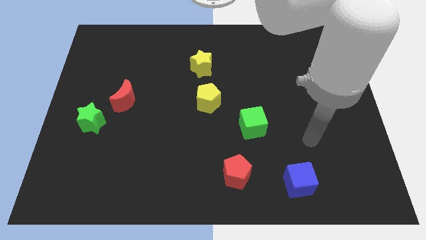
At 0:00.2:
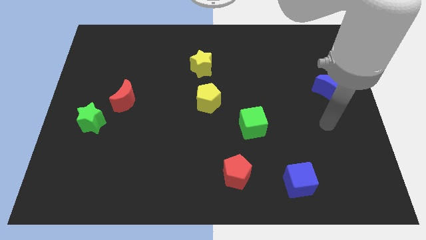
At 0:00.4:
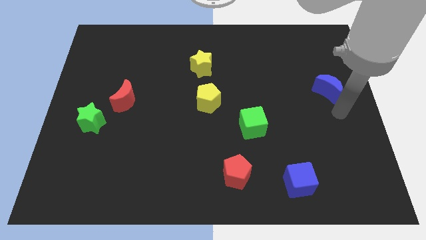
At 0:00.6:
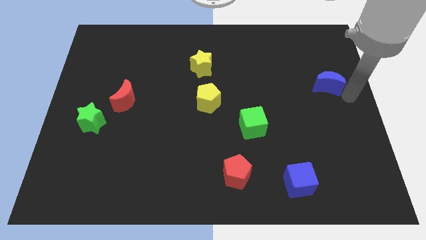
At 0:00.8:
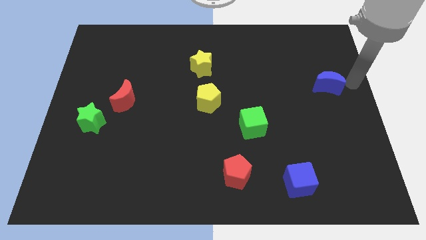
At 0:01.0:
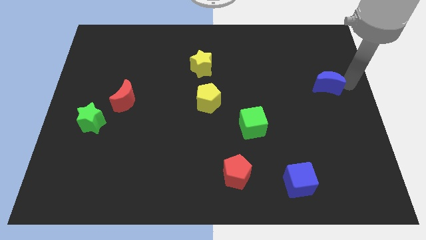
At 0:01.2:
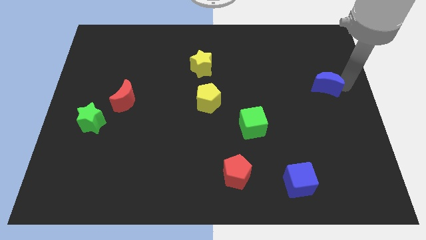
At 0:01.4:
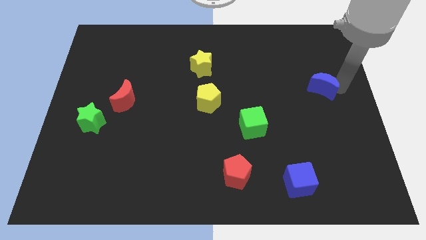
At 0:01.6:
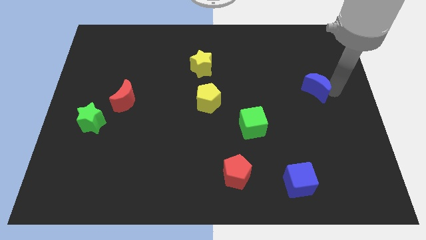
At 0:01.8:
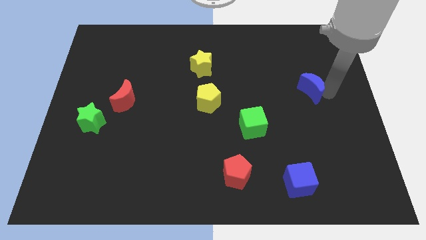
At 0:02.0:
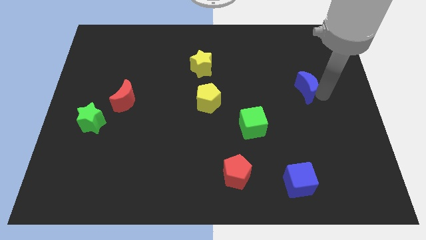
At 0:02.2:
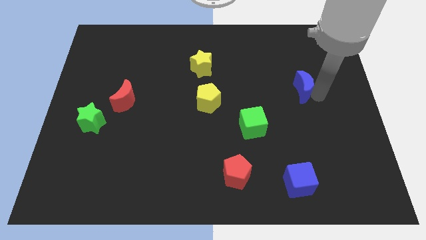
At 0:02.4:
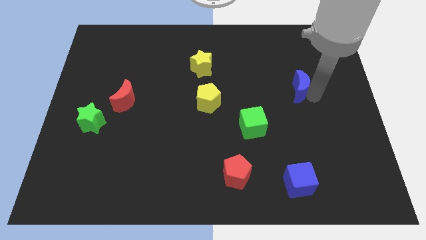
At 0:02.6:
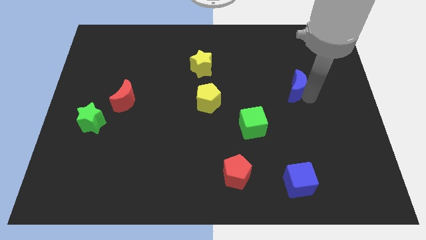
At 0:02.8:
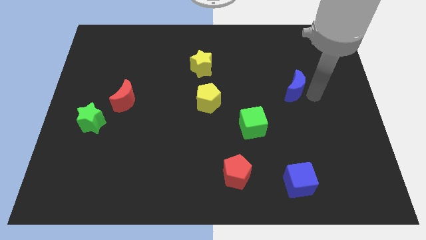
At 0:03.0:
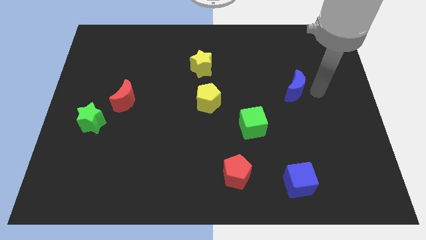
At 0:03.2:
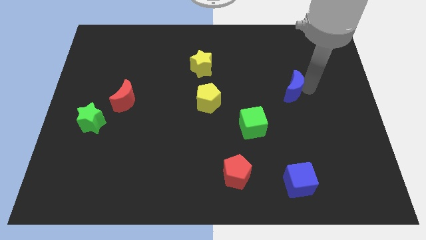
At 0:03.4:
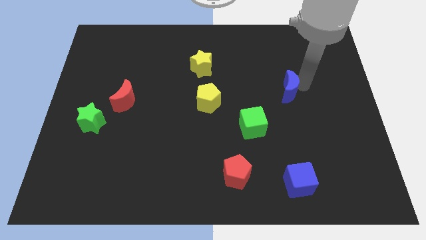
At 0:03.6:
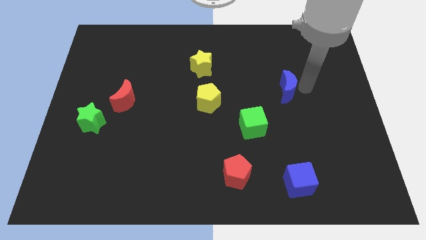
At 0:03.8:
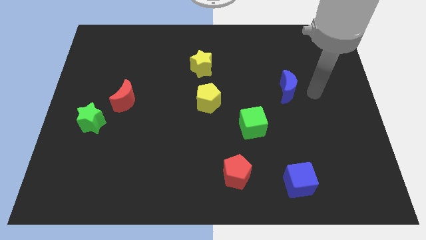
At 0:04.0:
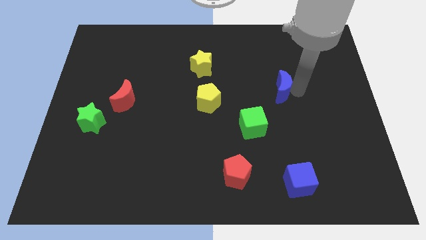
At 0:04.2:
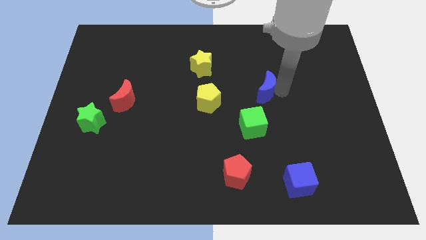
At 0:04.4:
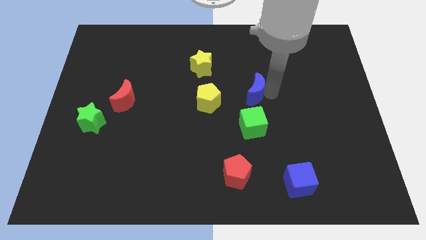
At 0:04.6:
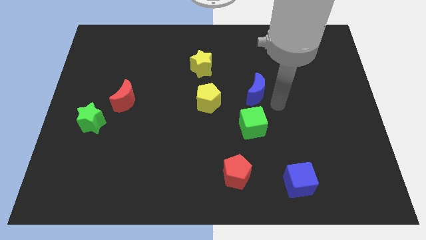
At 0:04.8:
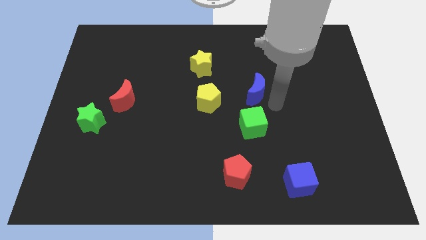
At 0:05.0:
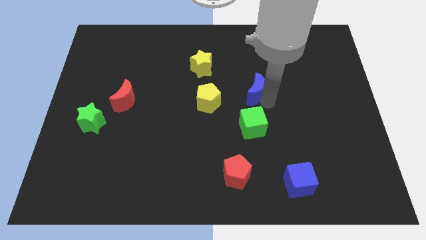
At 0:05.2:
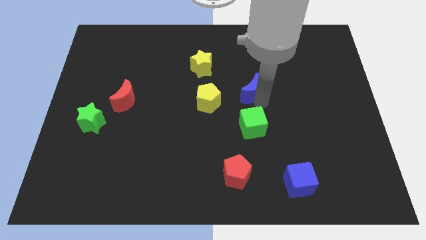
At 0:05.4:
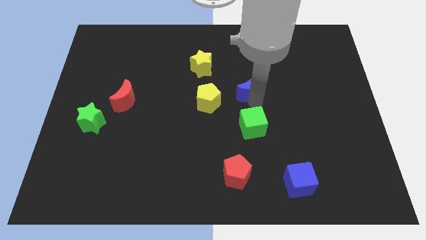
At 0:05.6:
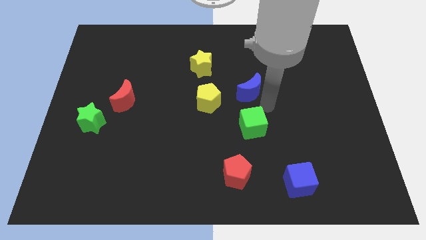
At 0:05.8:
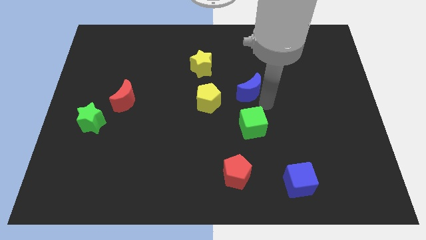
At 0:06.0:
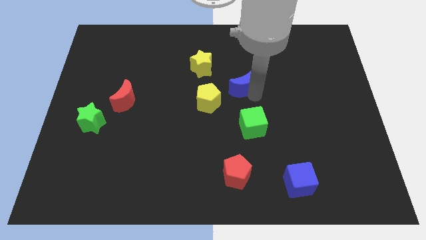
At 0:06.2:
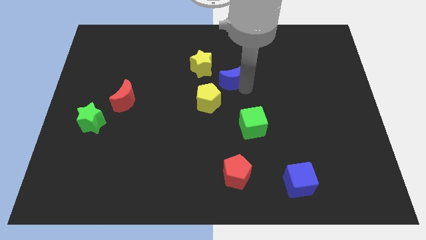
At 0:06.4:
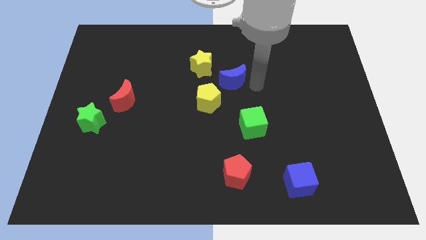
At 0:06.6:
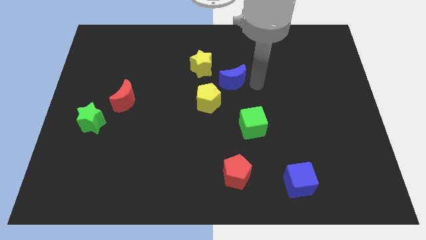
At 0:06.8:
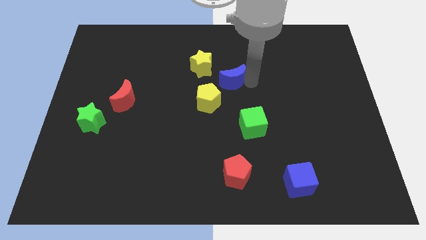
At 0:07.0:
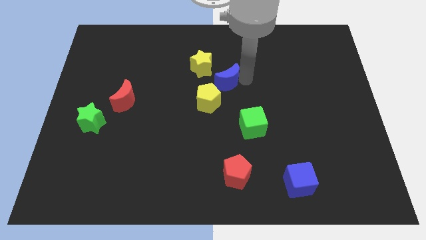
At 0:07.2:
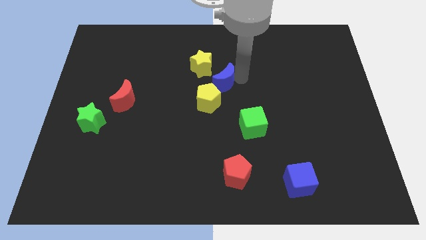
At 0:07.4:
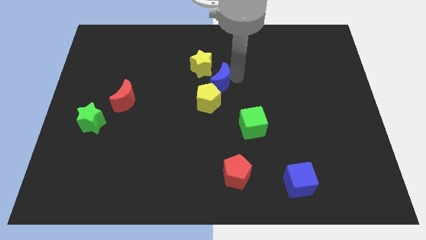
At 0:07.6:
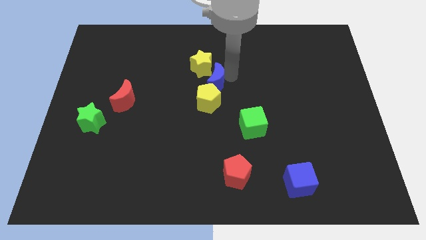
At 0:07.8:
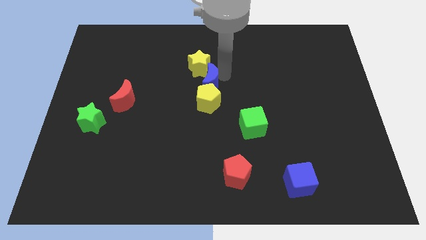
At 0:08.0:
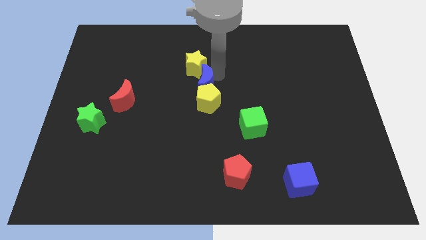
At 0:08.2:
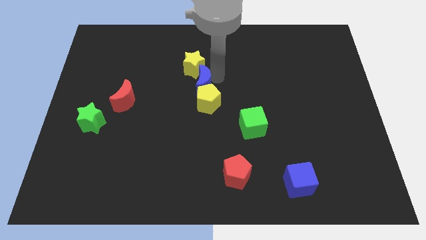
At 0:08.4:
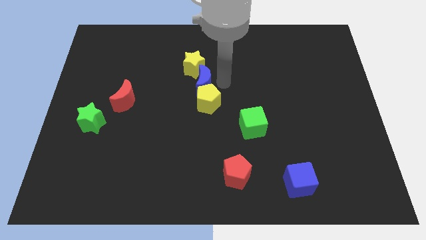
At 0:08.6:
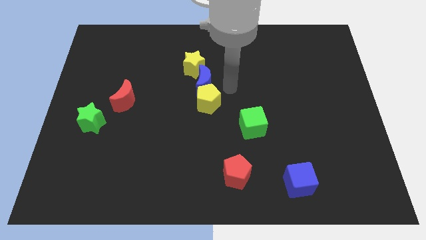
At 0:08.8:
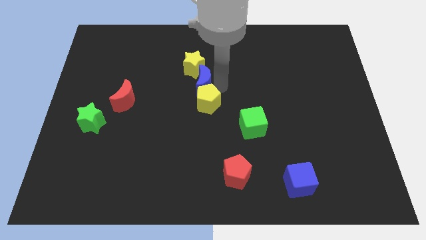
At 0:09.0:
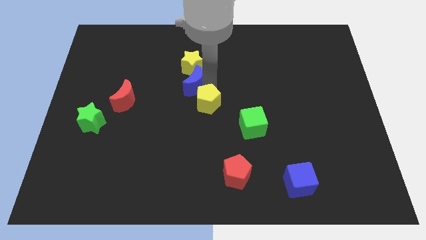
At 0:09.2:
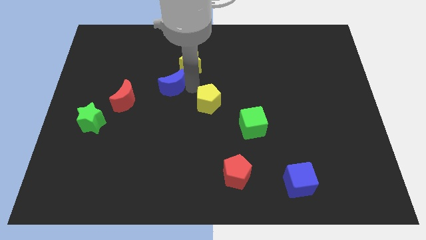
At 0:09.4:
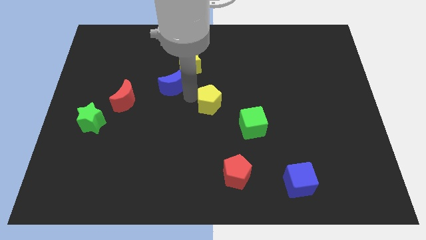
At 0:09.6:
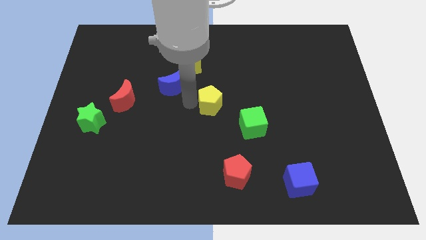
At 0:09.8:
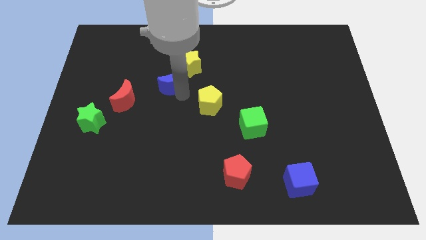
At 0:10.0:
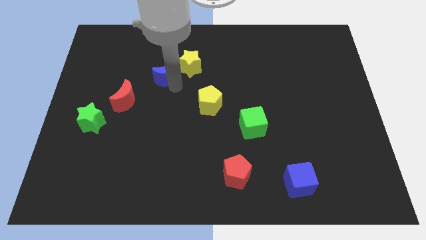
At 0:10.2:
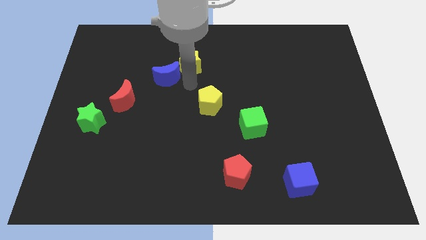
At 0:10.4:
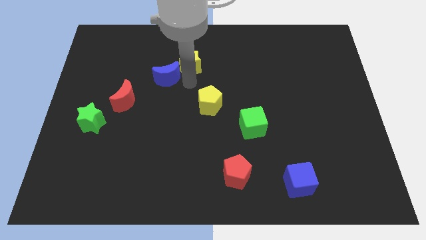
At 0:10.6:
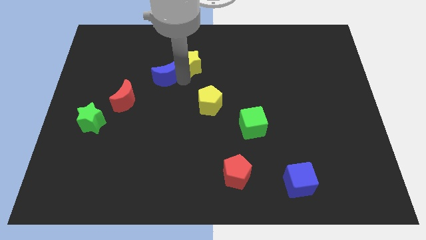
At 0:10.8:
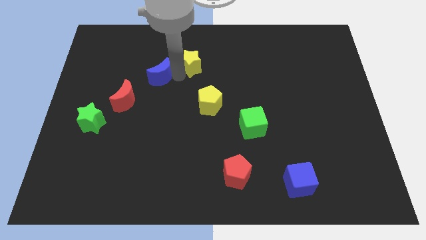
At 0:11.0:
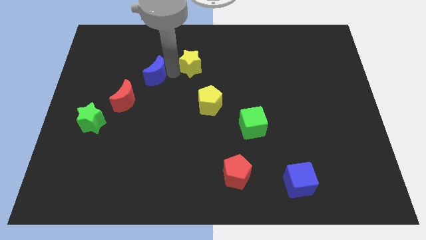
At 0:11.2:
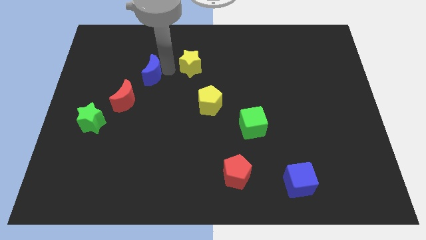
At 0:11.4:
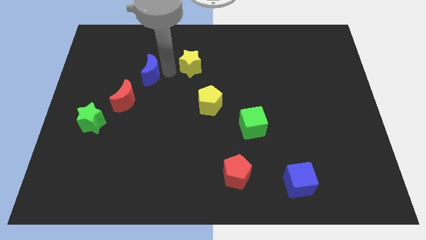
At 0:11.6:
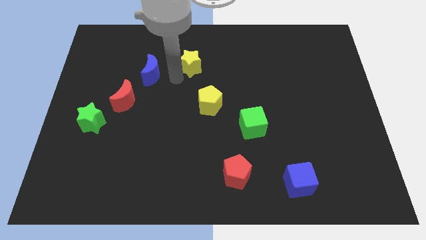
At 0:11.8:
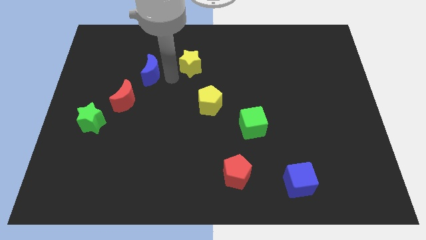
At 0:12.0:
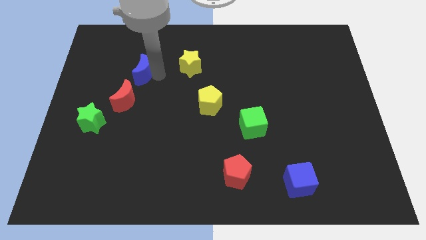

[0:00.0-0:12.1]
put the blue moon above the red moon
